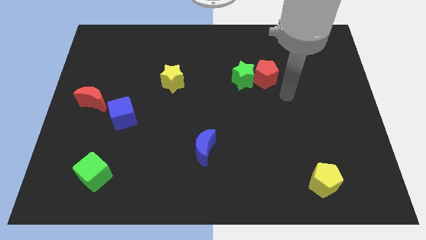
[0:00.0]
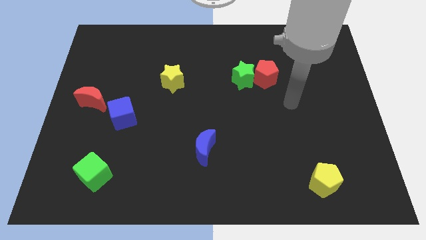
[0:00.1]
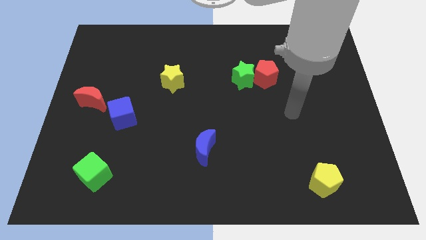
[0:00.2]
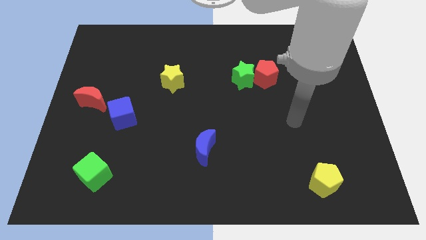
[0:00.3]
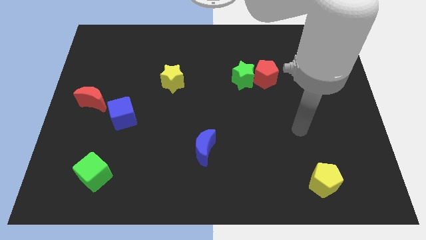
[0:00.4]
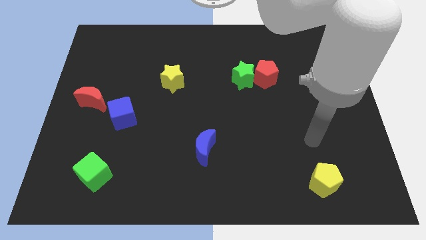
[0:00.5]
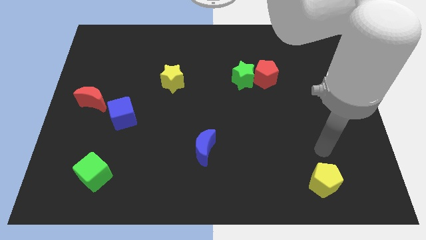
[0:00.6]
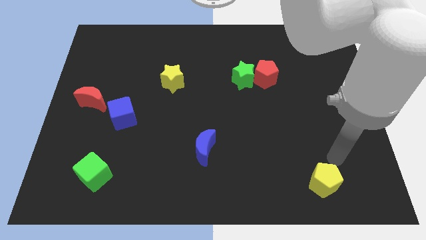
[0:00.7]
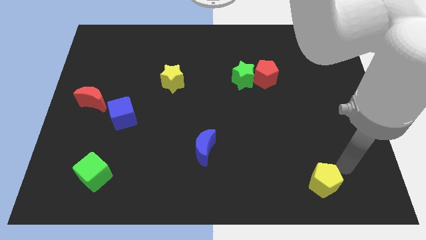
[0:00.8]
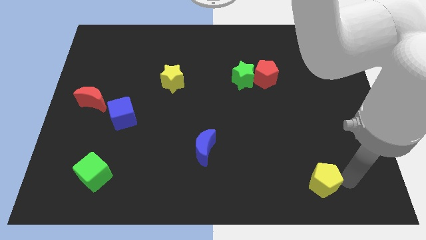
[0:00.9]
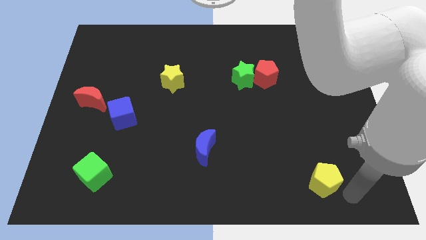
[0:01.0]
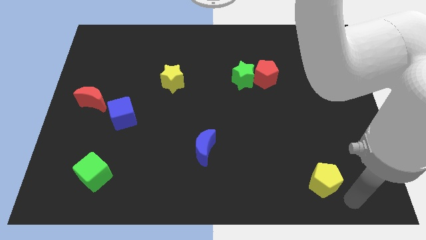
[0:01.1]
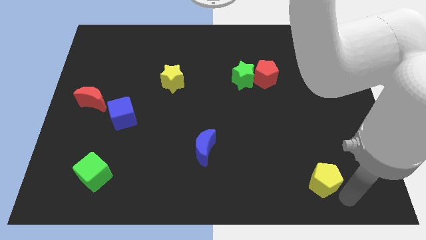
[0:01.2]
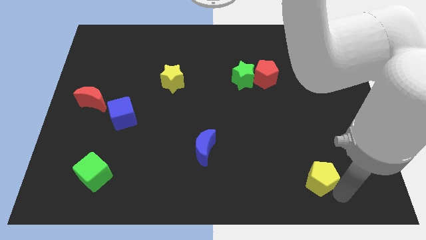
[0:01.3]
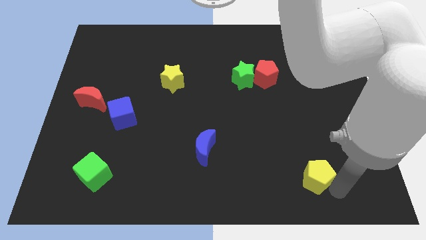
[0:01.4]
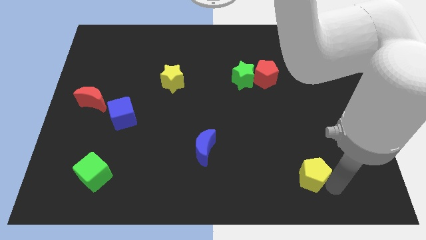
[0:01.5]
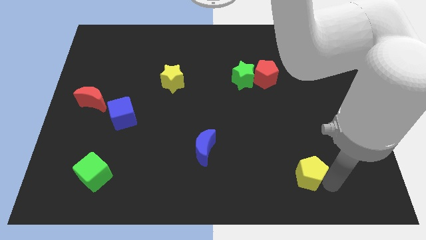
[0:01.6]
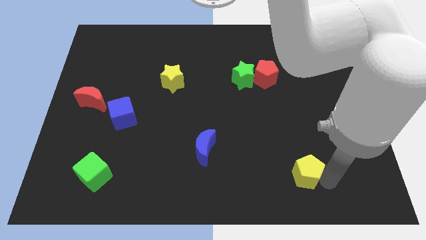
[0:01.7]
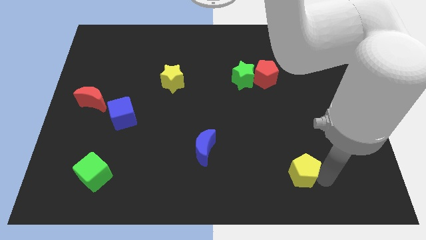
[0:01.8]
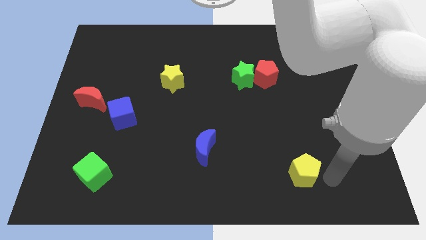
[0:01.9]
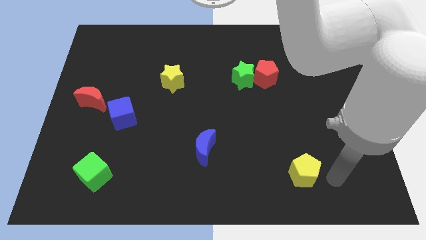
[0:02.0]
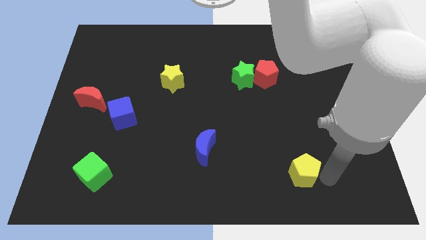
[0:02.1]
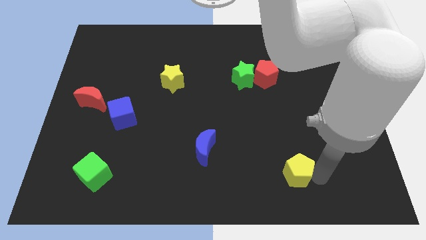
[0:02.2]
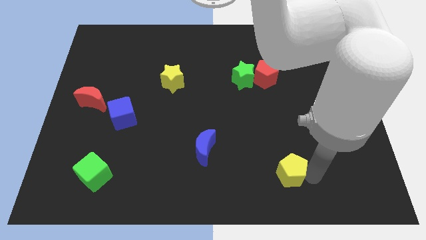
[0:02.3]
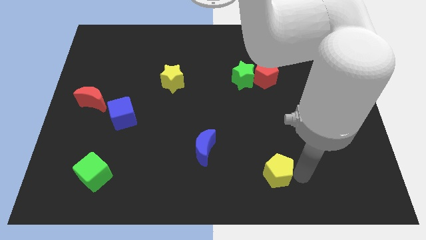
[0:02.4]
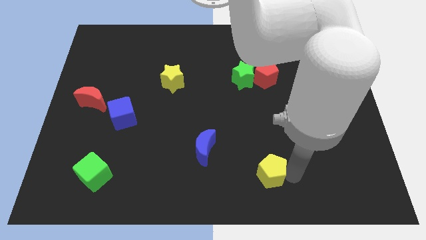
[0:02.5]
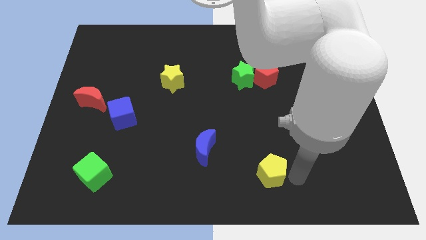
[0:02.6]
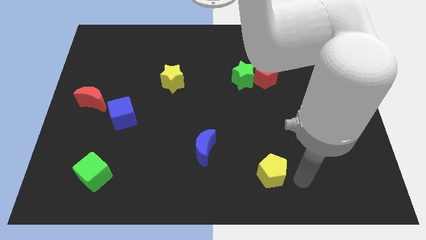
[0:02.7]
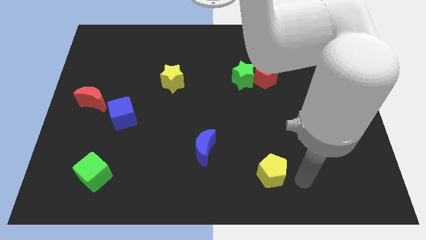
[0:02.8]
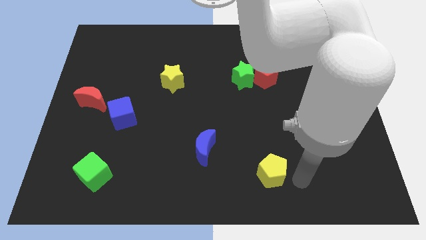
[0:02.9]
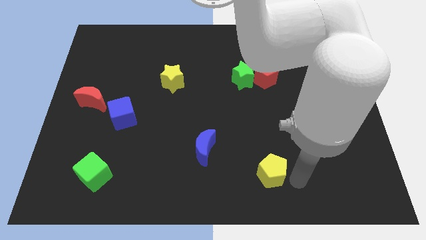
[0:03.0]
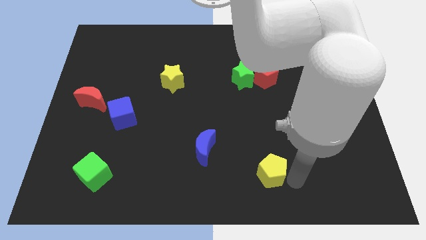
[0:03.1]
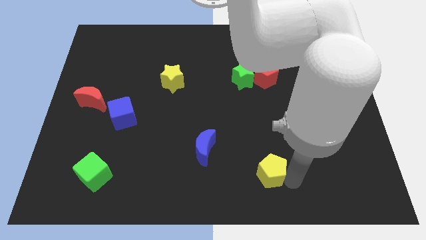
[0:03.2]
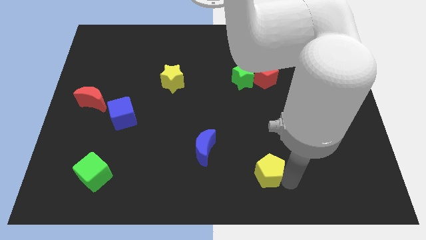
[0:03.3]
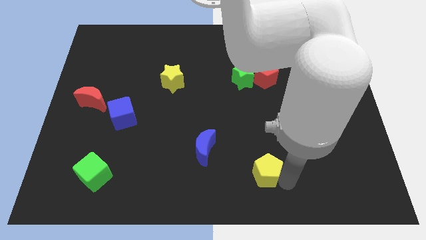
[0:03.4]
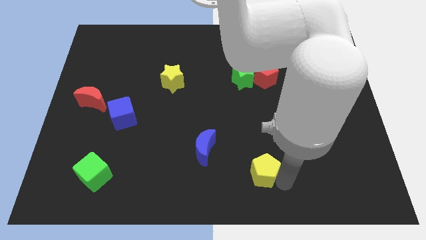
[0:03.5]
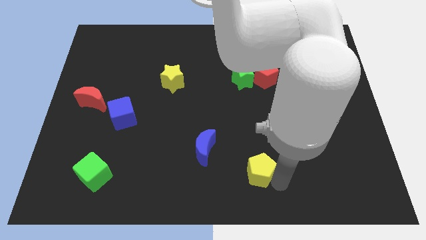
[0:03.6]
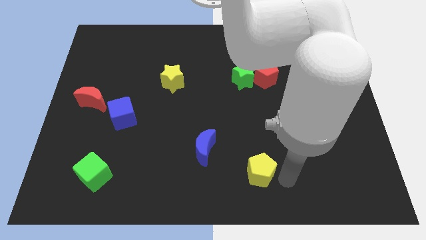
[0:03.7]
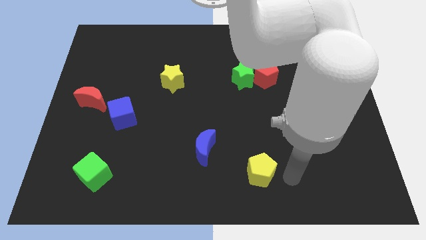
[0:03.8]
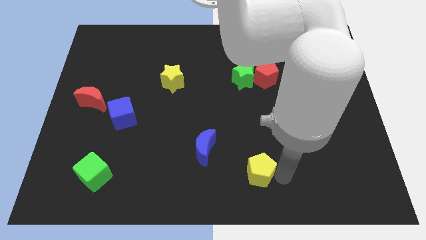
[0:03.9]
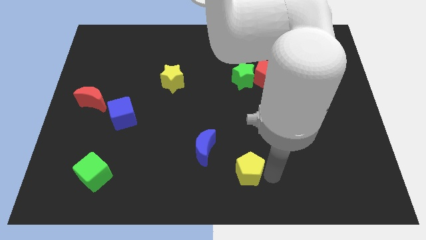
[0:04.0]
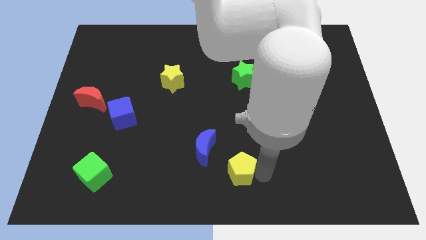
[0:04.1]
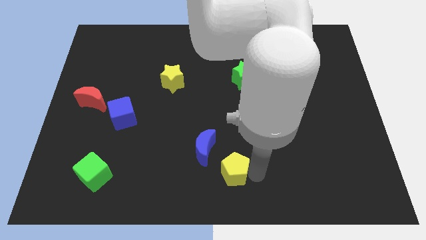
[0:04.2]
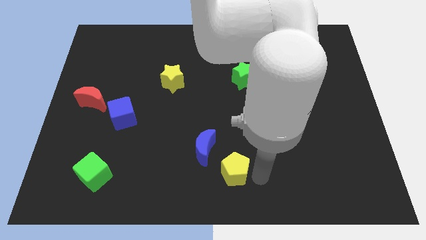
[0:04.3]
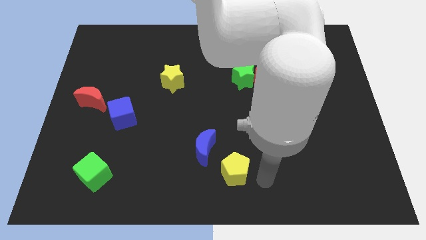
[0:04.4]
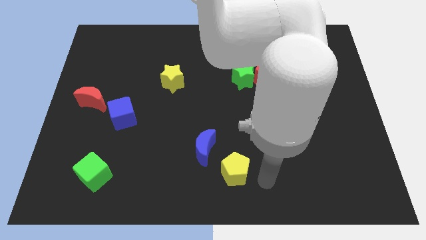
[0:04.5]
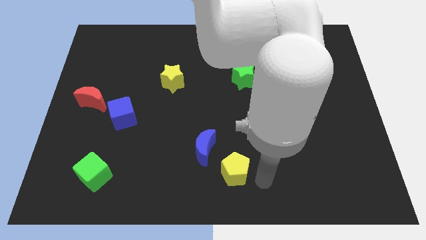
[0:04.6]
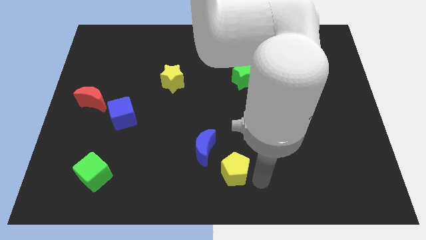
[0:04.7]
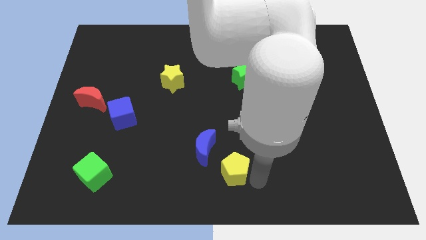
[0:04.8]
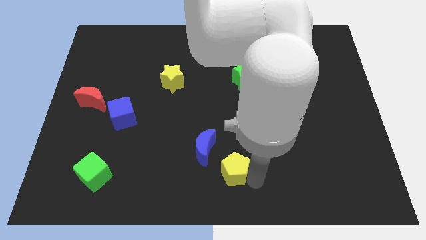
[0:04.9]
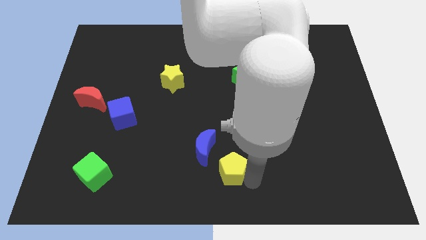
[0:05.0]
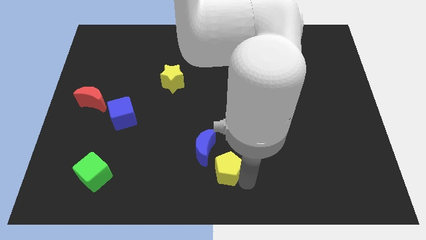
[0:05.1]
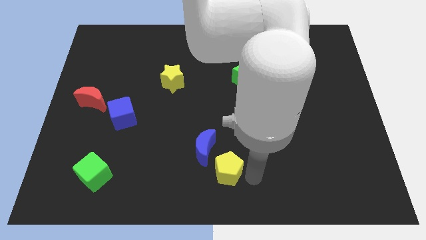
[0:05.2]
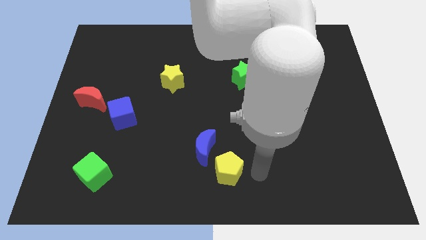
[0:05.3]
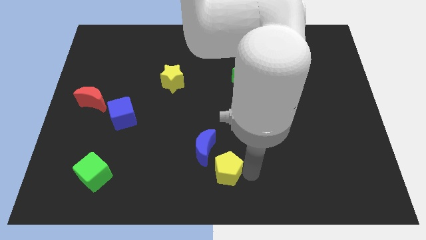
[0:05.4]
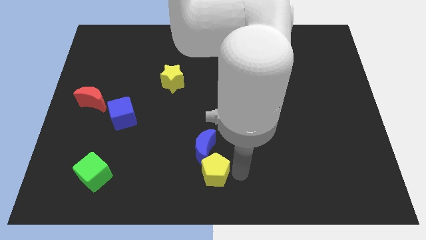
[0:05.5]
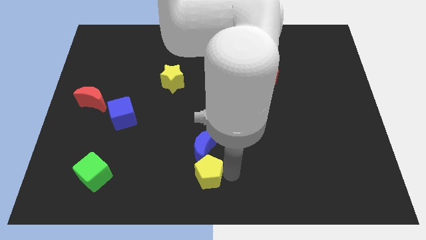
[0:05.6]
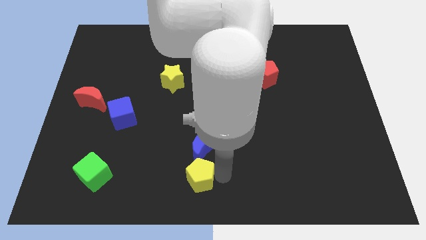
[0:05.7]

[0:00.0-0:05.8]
put the yellow pentagon to the bottom left of the blue moon

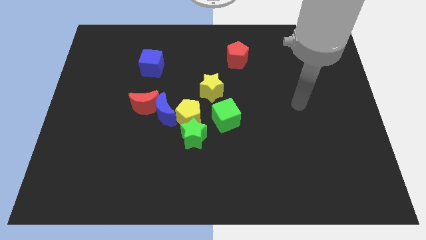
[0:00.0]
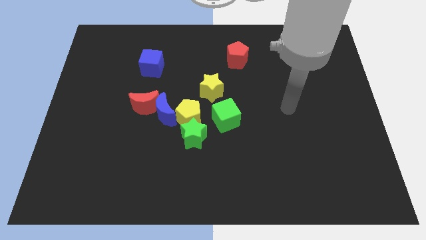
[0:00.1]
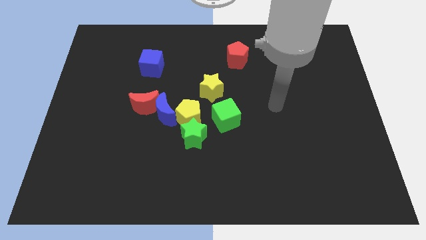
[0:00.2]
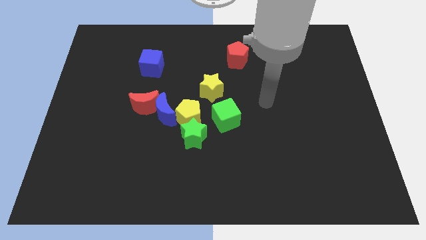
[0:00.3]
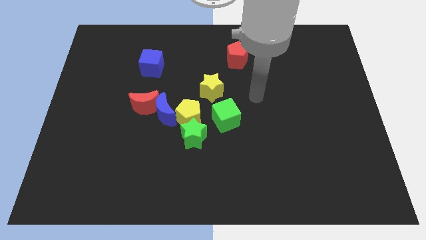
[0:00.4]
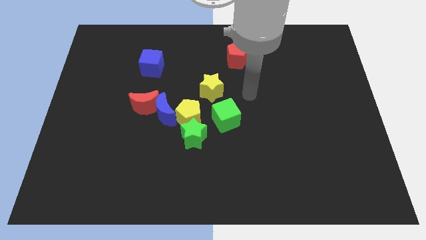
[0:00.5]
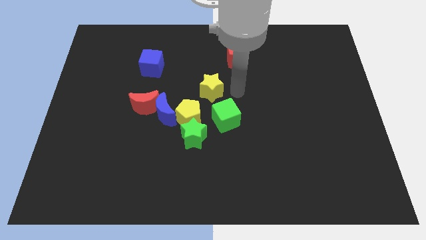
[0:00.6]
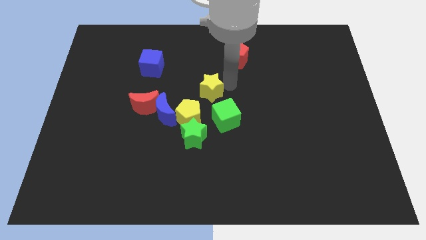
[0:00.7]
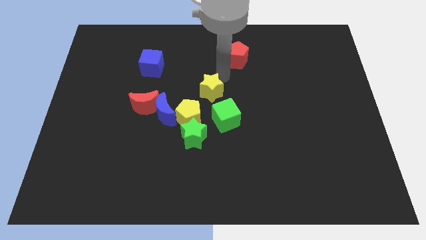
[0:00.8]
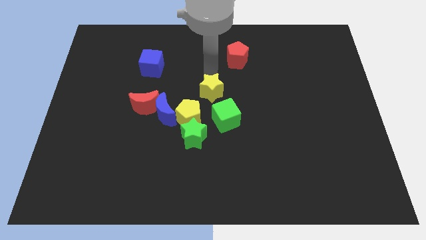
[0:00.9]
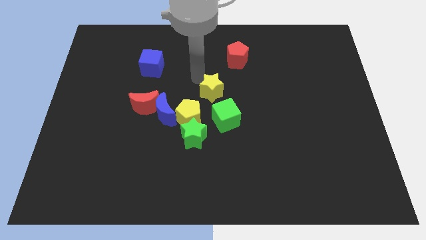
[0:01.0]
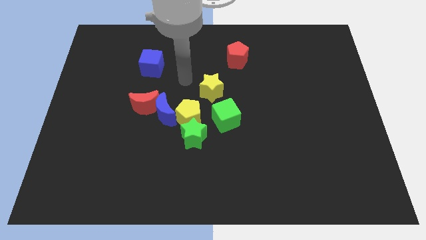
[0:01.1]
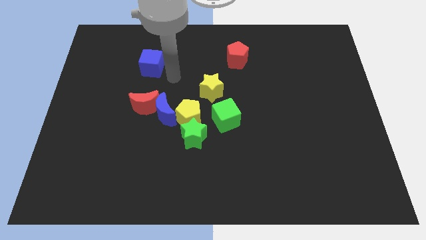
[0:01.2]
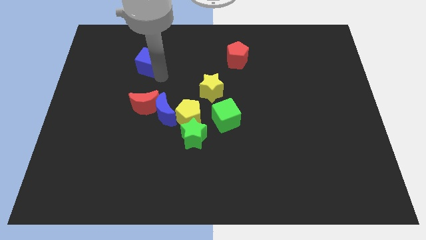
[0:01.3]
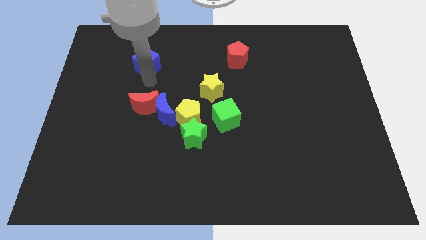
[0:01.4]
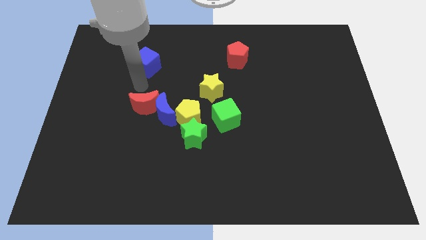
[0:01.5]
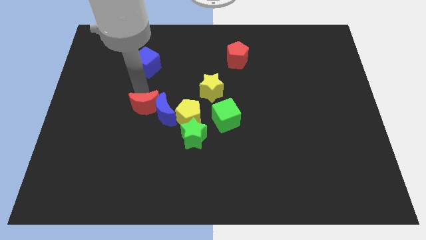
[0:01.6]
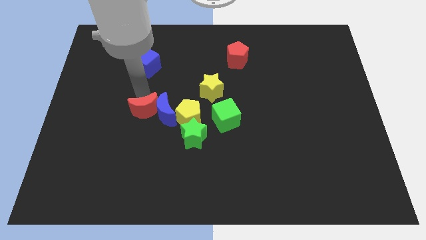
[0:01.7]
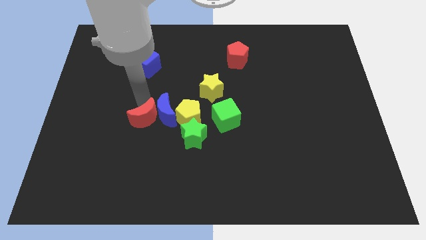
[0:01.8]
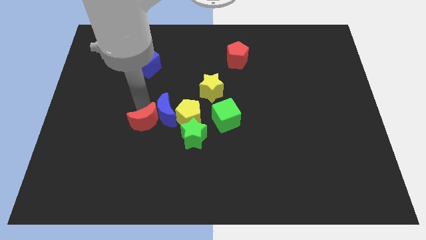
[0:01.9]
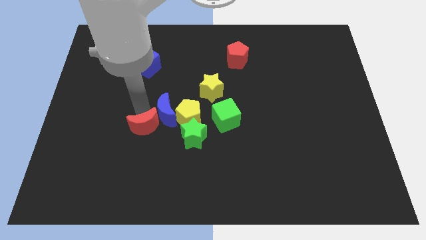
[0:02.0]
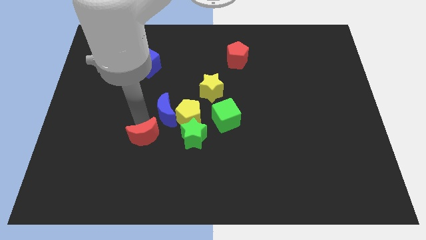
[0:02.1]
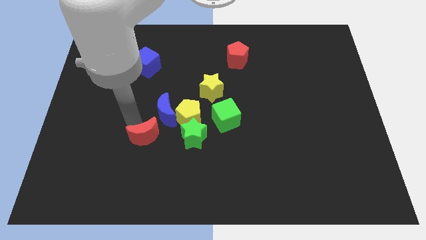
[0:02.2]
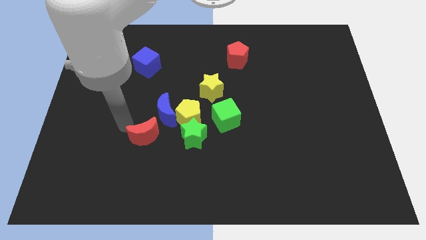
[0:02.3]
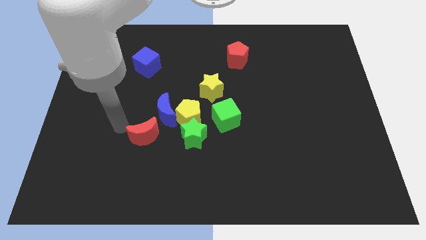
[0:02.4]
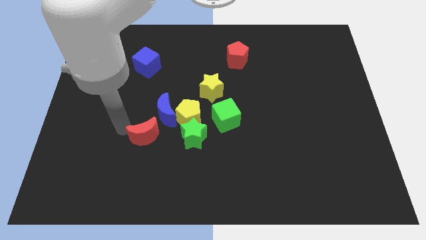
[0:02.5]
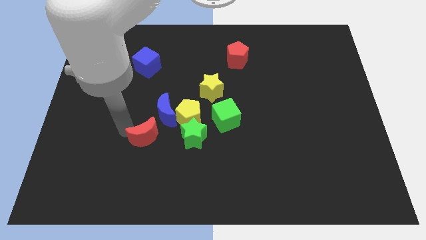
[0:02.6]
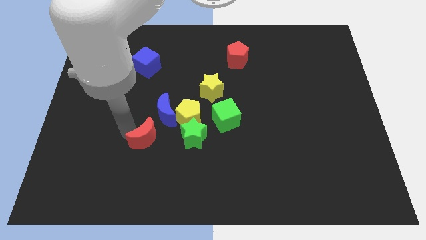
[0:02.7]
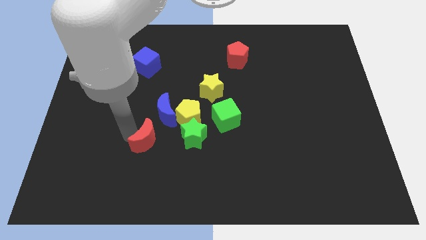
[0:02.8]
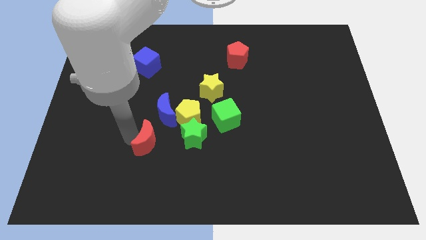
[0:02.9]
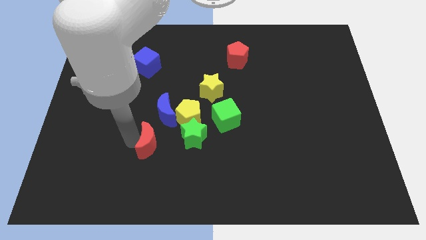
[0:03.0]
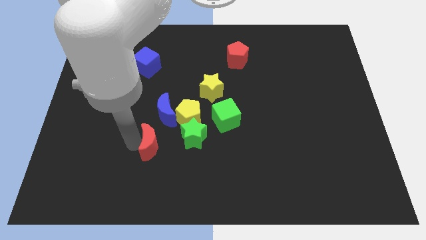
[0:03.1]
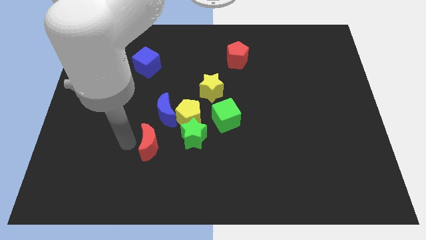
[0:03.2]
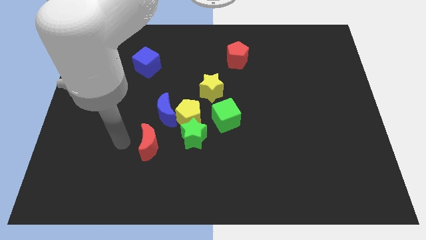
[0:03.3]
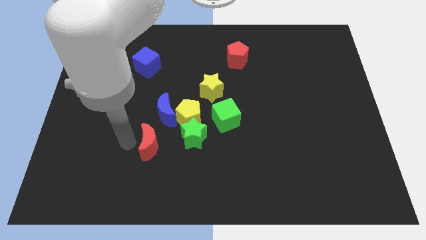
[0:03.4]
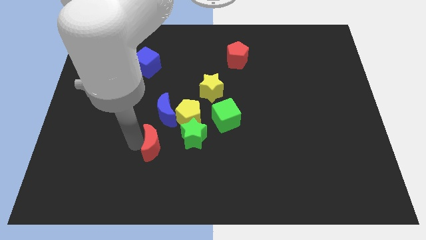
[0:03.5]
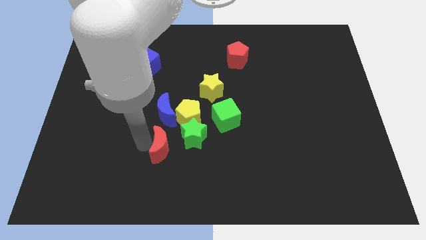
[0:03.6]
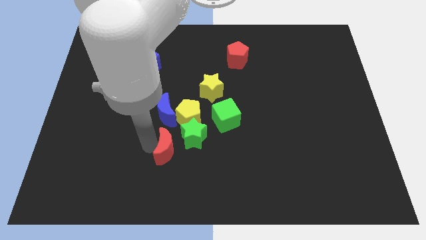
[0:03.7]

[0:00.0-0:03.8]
slide the red moon to the bottom side of the yellow pentagon
